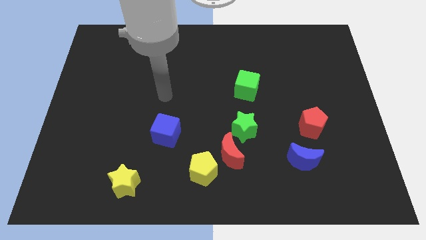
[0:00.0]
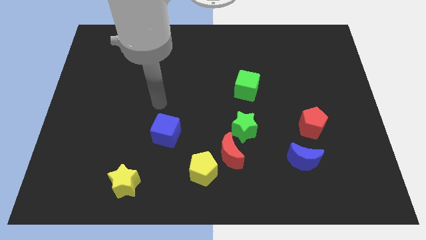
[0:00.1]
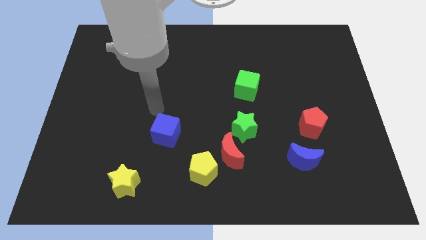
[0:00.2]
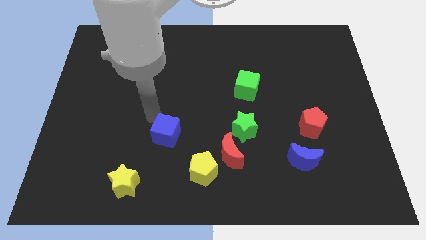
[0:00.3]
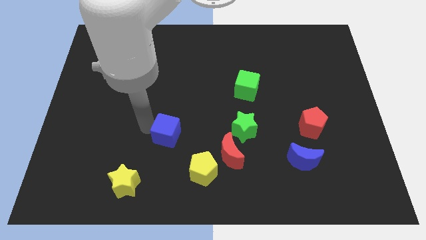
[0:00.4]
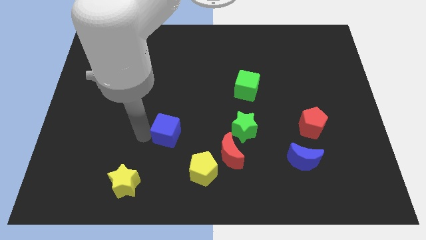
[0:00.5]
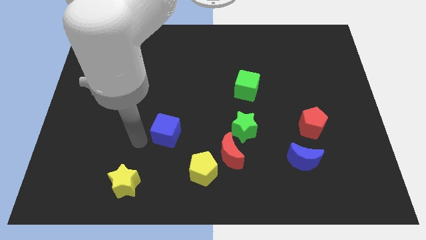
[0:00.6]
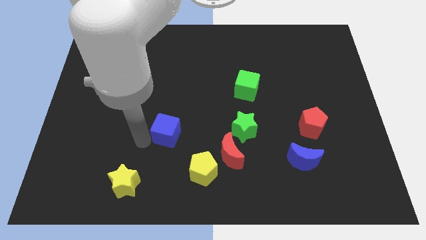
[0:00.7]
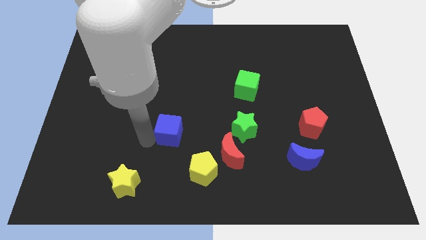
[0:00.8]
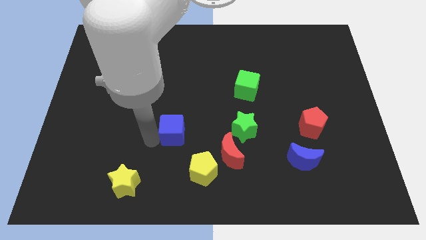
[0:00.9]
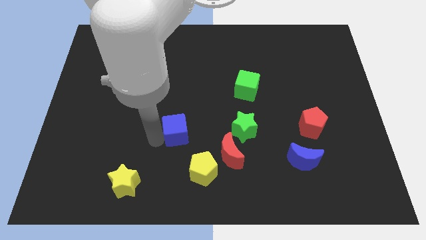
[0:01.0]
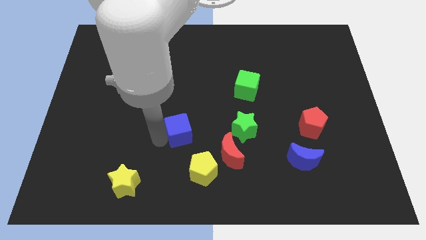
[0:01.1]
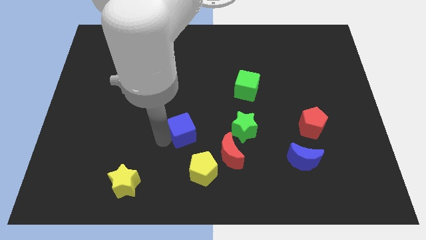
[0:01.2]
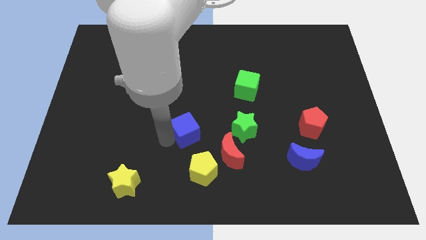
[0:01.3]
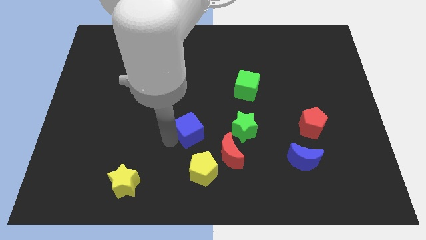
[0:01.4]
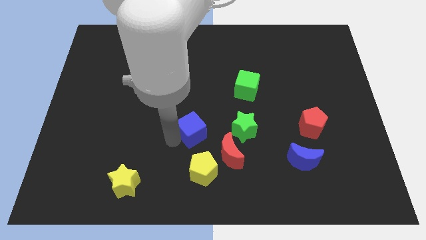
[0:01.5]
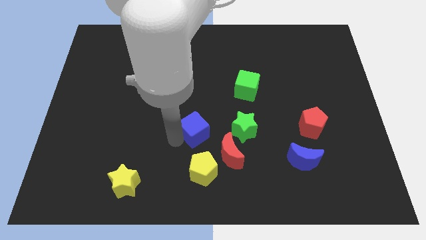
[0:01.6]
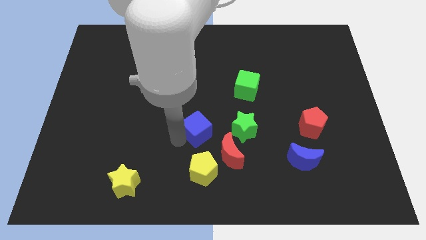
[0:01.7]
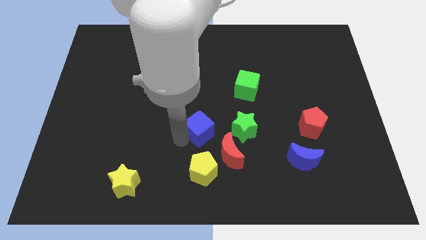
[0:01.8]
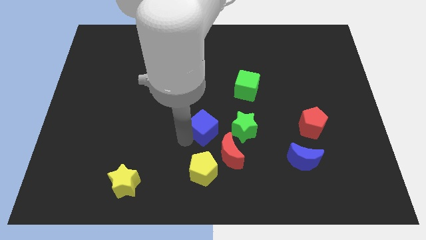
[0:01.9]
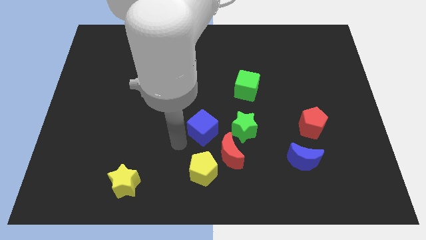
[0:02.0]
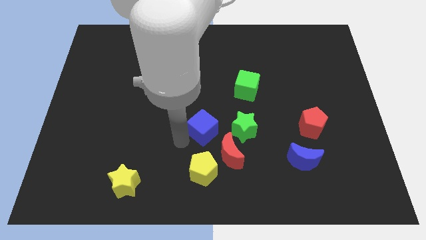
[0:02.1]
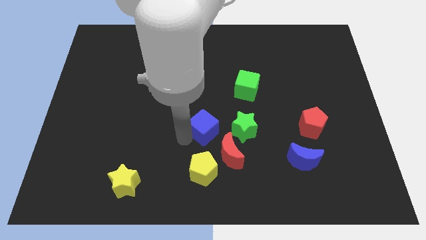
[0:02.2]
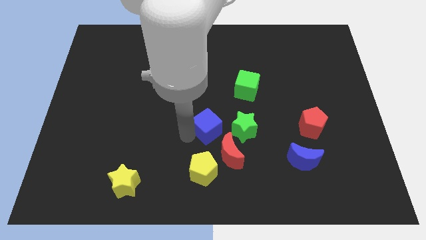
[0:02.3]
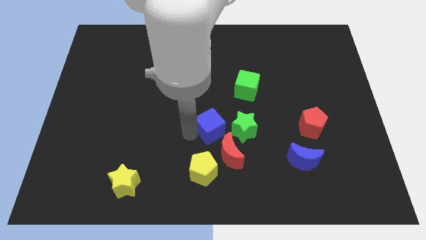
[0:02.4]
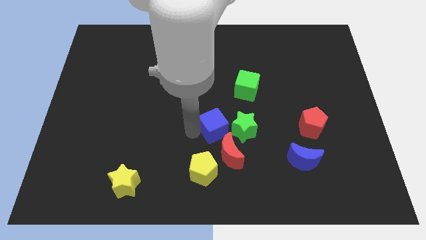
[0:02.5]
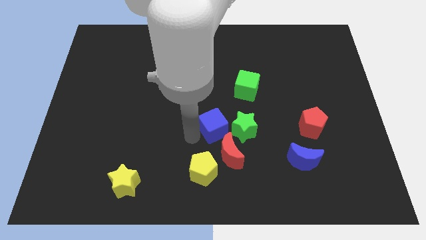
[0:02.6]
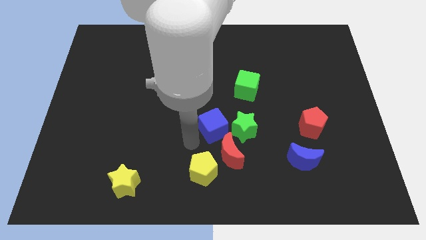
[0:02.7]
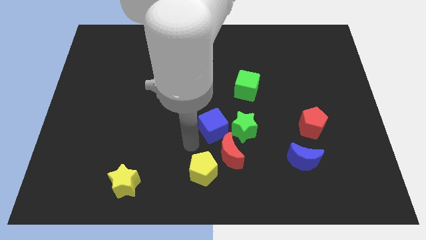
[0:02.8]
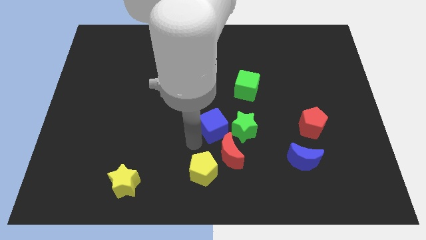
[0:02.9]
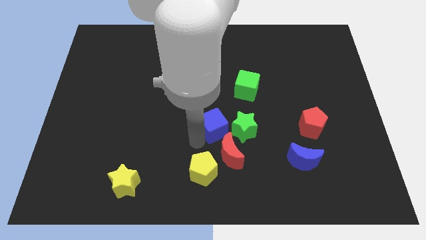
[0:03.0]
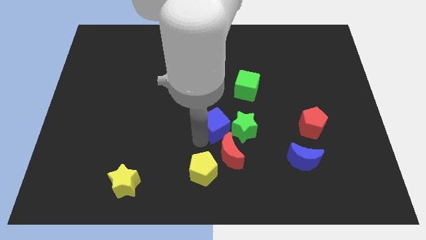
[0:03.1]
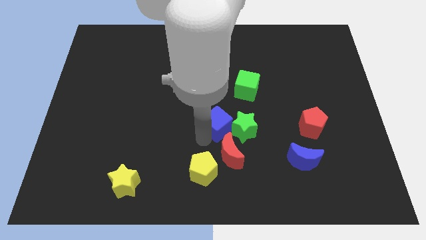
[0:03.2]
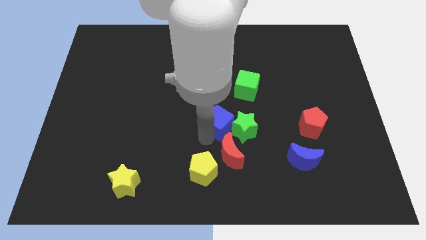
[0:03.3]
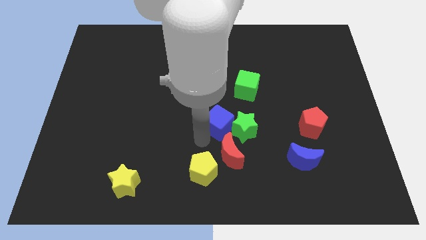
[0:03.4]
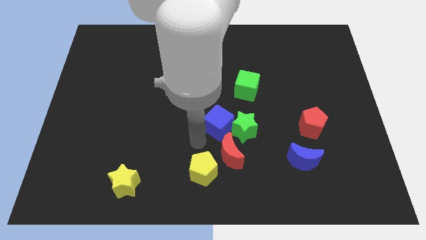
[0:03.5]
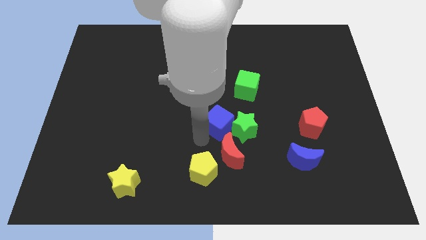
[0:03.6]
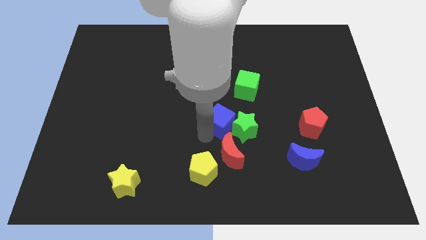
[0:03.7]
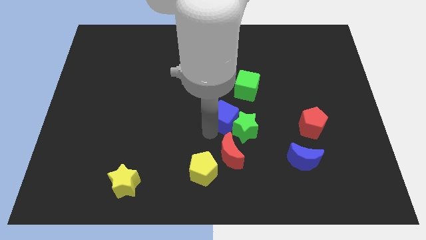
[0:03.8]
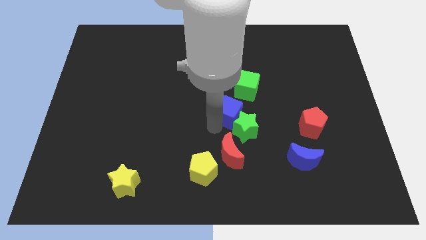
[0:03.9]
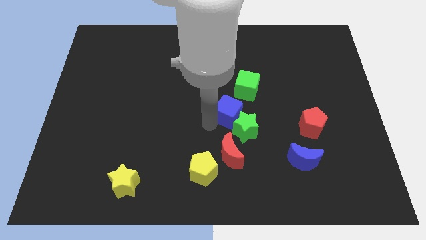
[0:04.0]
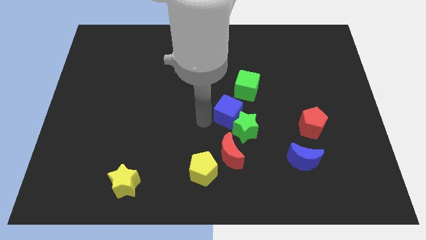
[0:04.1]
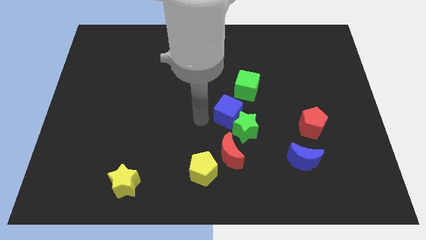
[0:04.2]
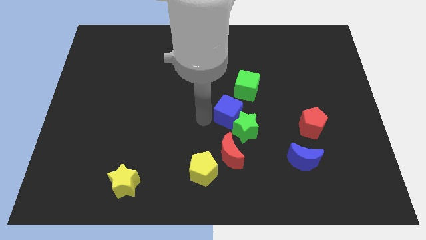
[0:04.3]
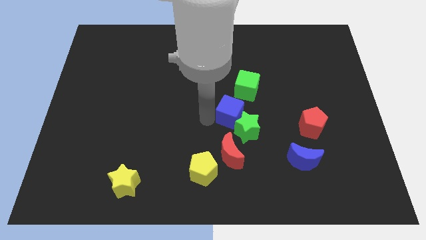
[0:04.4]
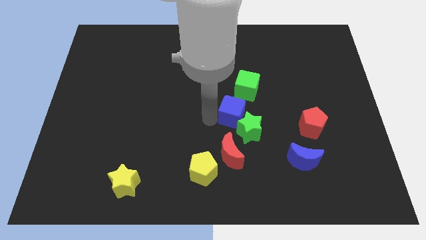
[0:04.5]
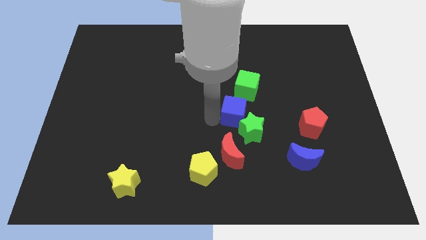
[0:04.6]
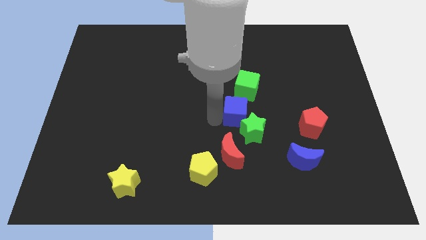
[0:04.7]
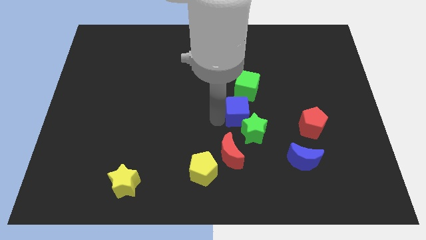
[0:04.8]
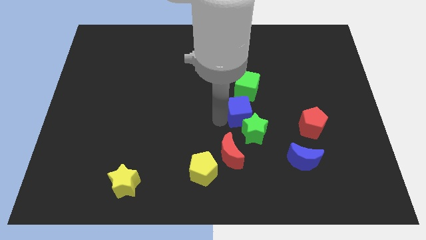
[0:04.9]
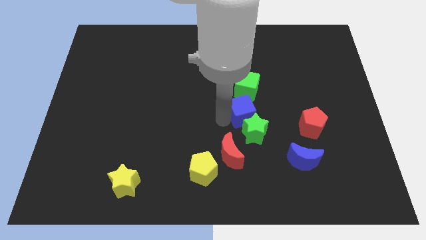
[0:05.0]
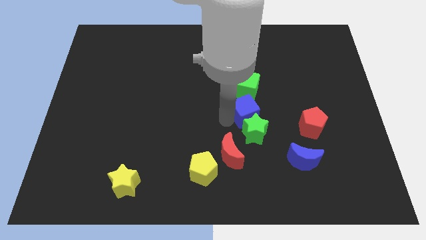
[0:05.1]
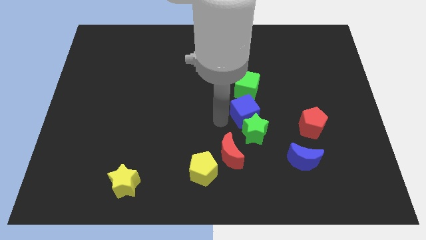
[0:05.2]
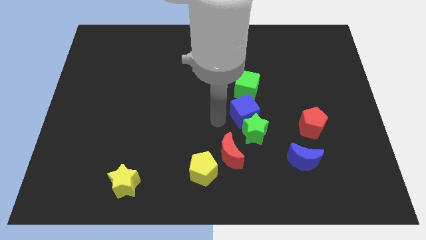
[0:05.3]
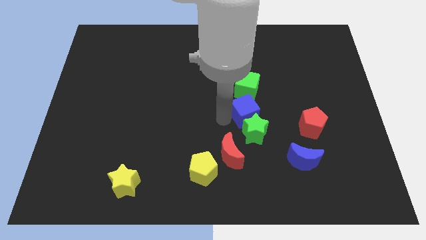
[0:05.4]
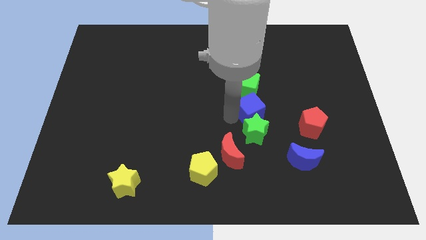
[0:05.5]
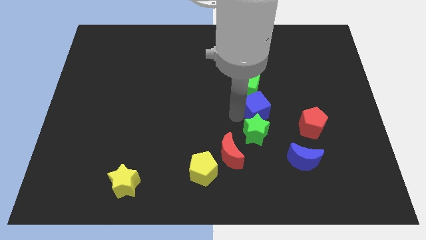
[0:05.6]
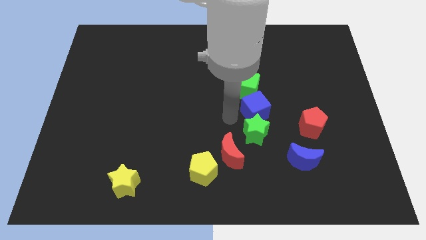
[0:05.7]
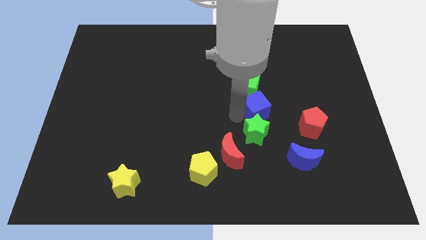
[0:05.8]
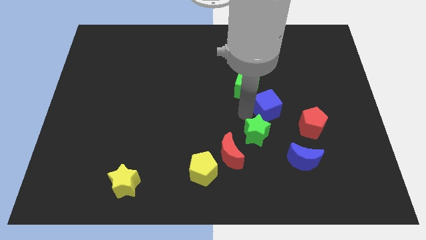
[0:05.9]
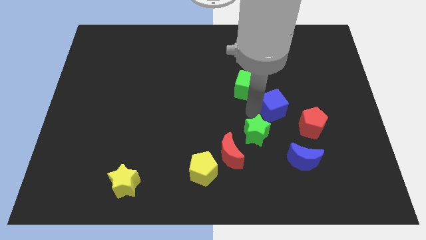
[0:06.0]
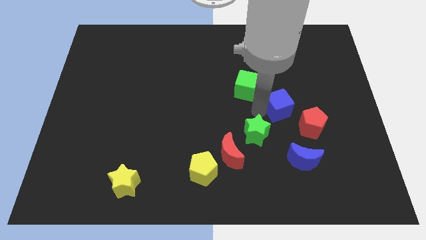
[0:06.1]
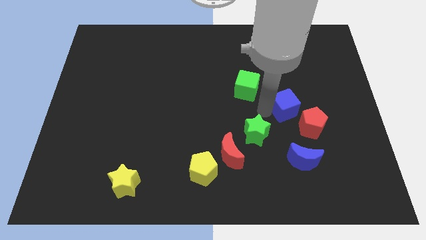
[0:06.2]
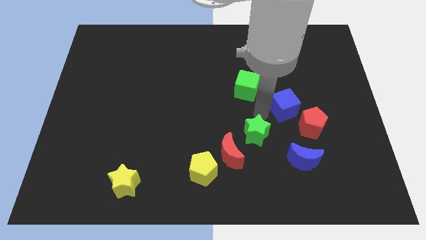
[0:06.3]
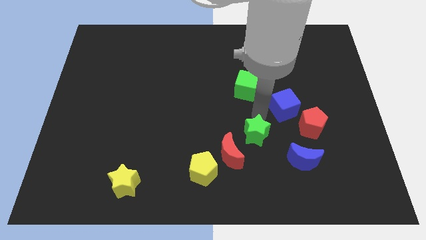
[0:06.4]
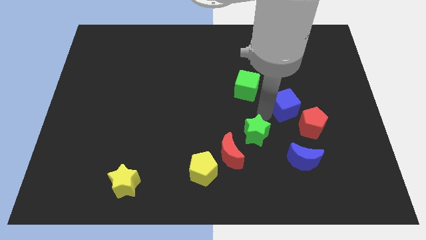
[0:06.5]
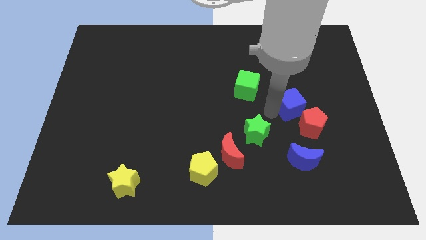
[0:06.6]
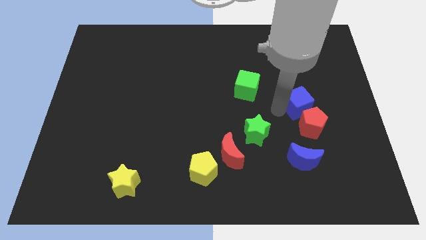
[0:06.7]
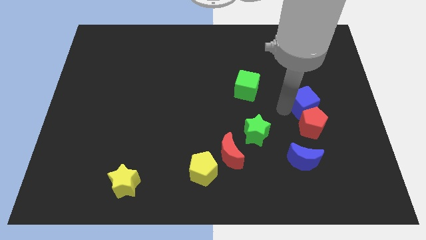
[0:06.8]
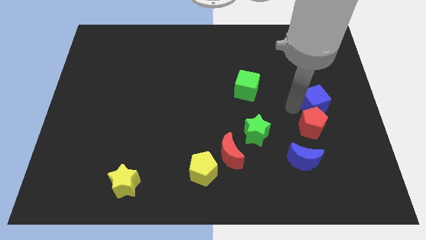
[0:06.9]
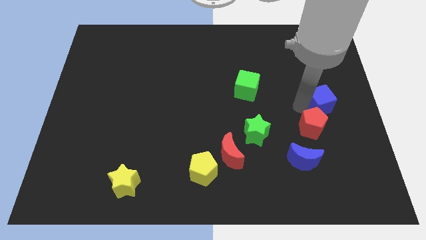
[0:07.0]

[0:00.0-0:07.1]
put the blue cube to the right side of the board
